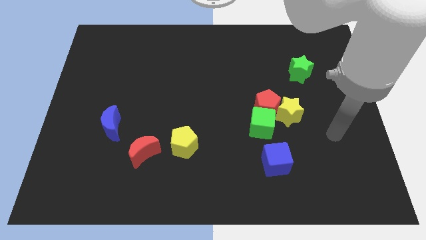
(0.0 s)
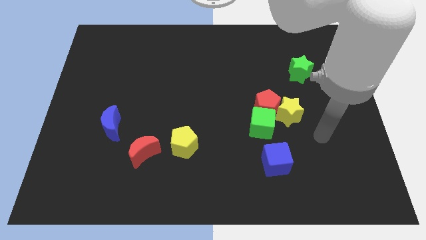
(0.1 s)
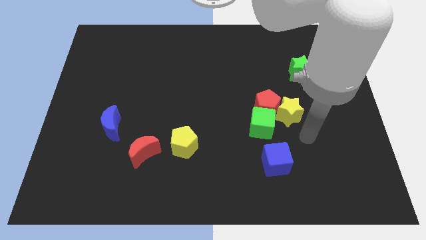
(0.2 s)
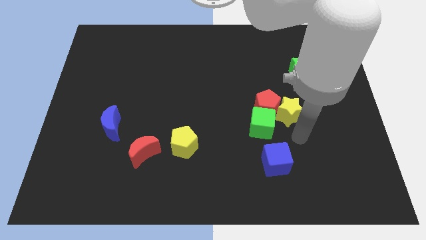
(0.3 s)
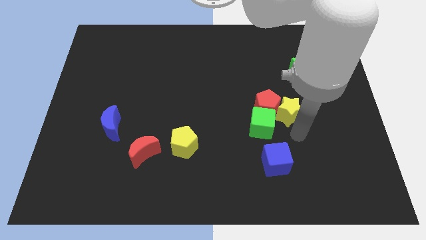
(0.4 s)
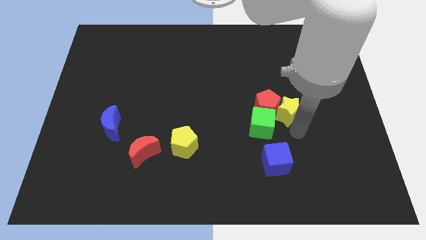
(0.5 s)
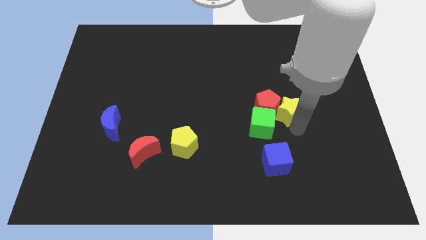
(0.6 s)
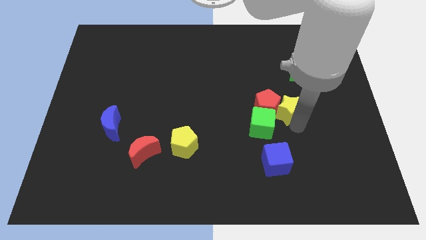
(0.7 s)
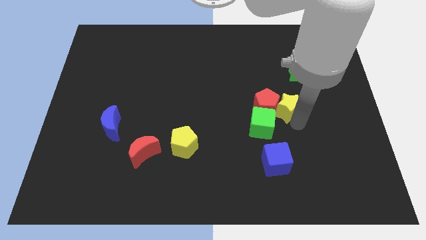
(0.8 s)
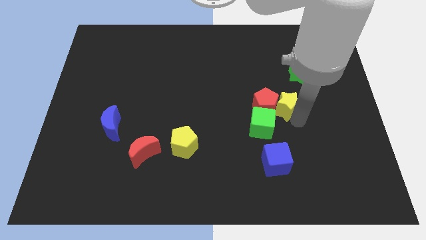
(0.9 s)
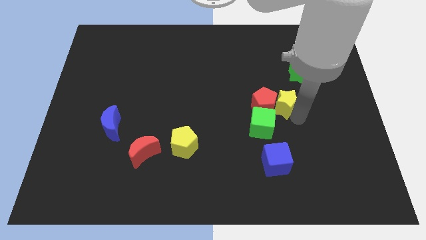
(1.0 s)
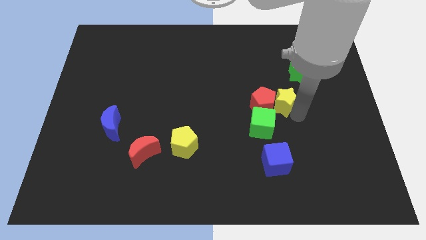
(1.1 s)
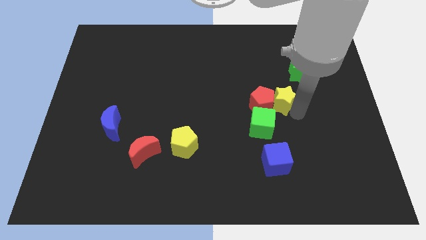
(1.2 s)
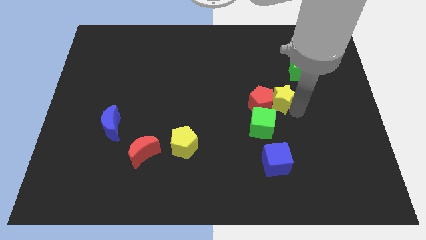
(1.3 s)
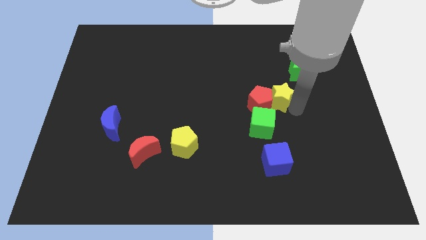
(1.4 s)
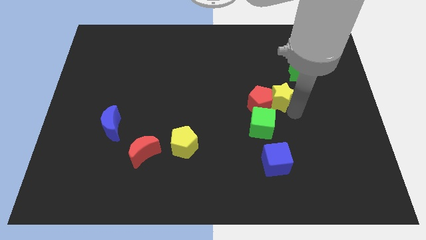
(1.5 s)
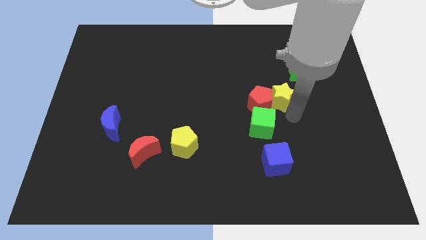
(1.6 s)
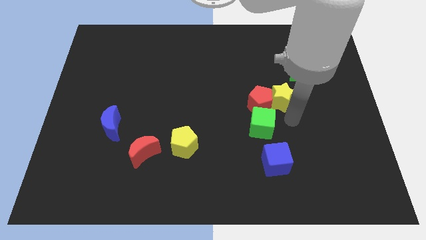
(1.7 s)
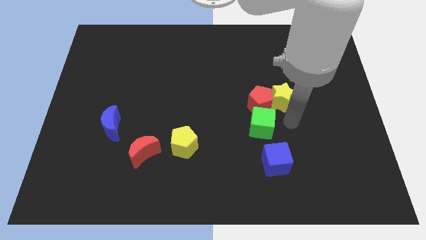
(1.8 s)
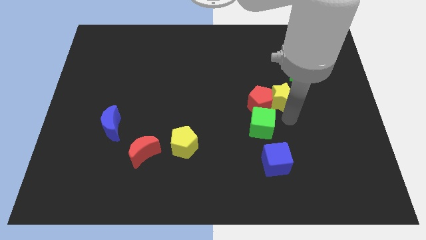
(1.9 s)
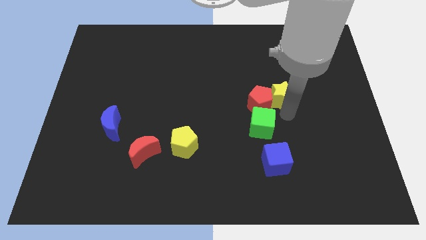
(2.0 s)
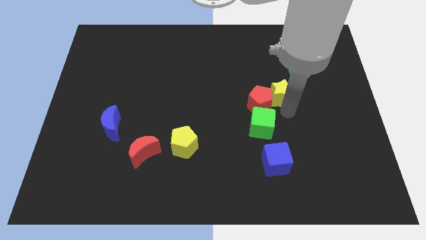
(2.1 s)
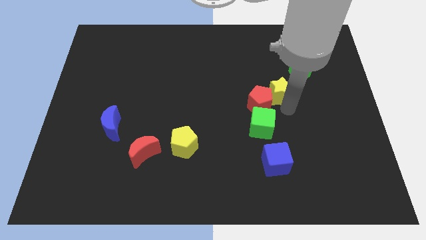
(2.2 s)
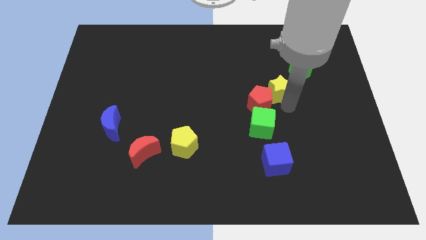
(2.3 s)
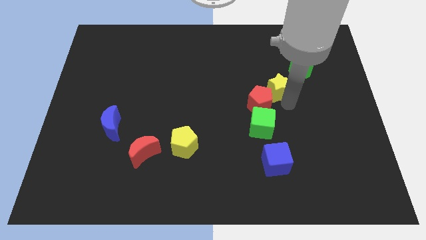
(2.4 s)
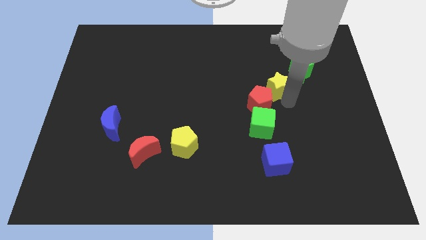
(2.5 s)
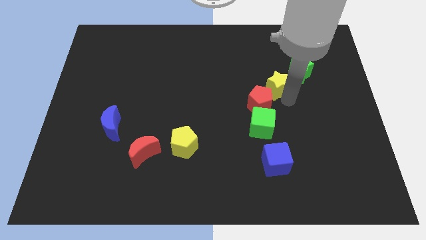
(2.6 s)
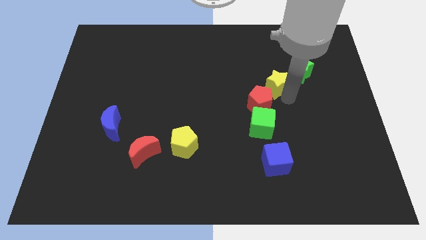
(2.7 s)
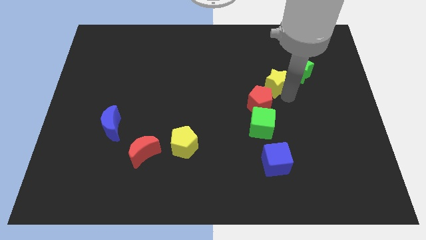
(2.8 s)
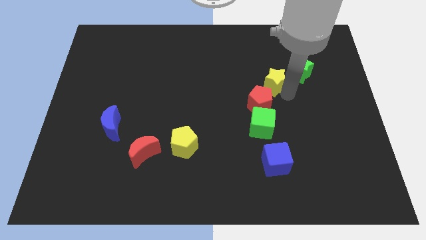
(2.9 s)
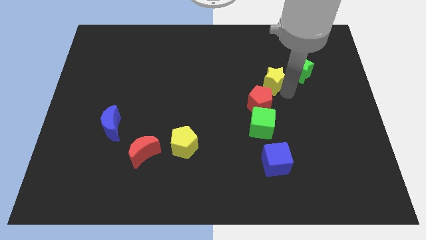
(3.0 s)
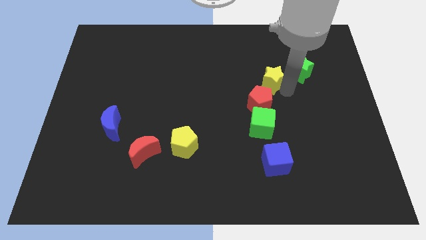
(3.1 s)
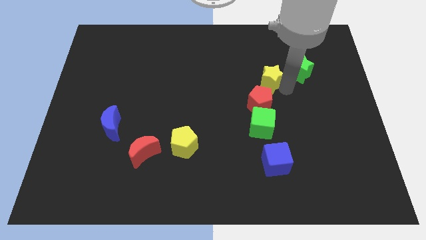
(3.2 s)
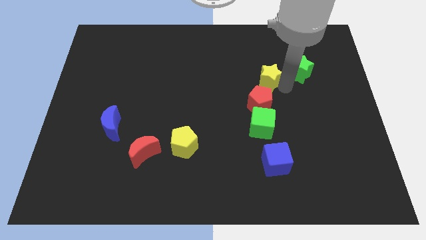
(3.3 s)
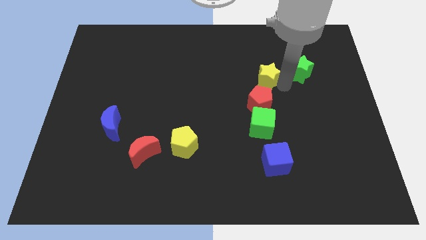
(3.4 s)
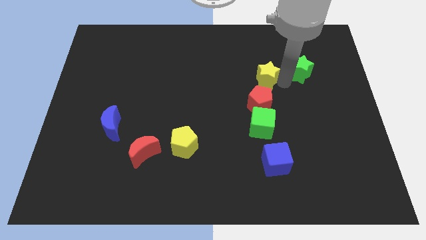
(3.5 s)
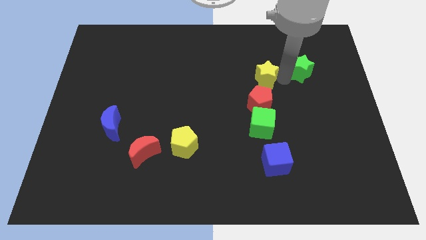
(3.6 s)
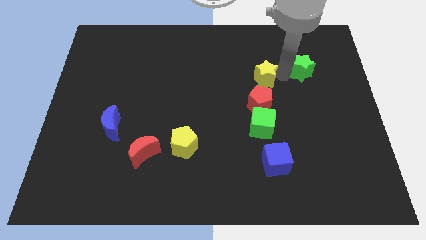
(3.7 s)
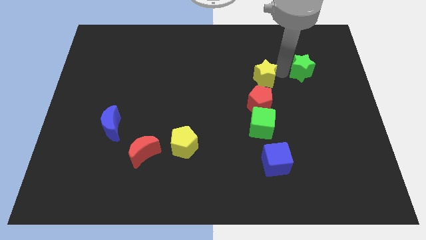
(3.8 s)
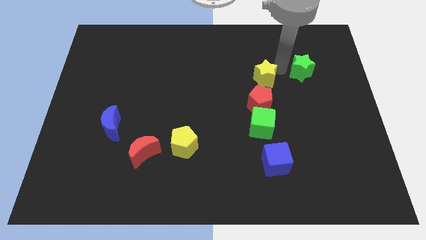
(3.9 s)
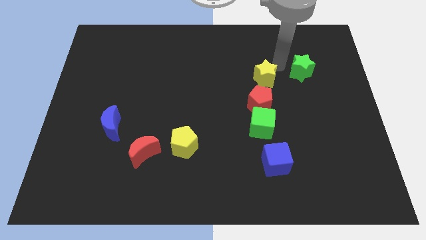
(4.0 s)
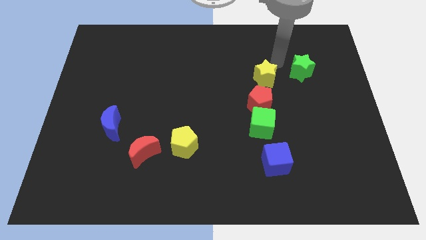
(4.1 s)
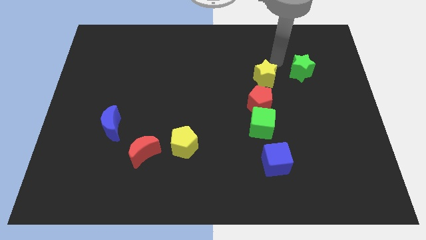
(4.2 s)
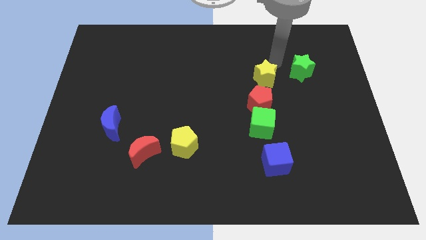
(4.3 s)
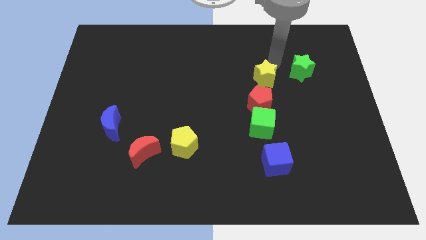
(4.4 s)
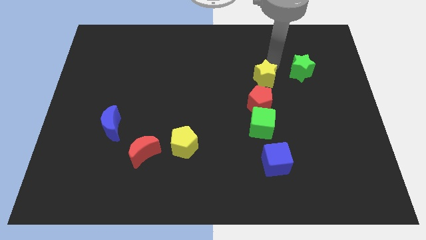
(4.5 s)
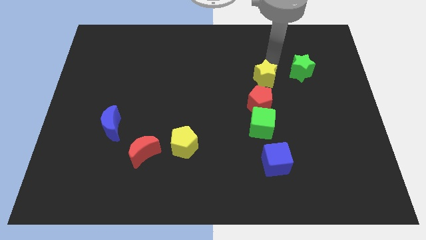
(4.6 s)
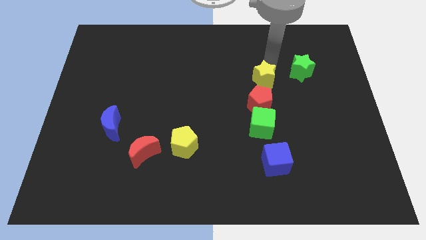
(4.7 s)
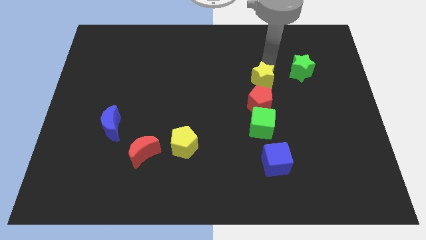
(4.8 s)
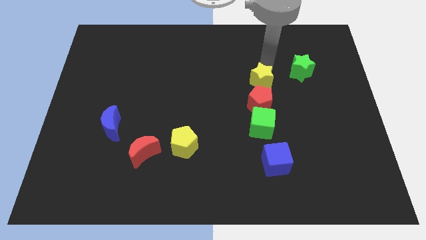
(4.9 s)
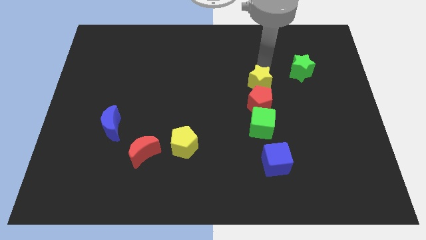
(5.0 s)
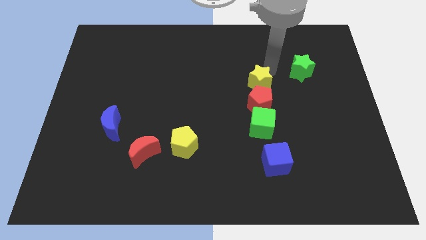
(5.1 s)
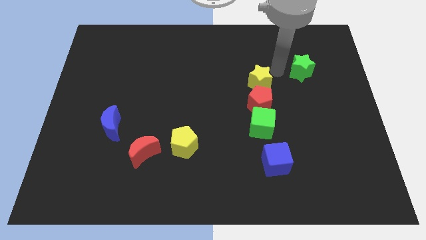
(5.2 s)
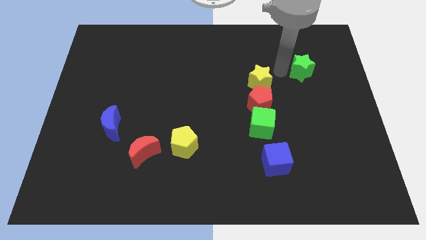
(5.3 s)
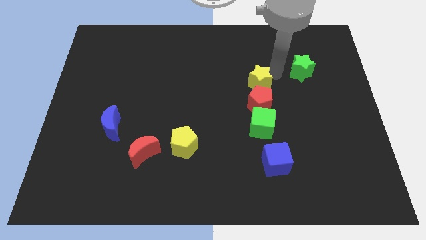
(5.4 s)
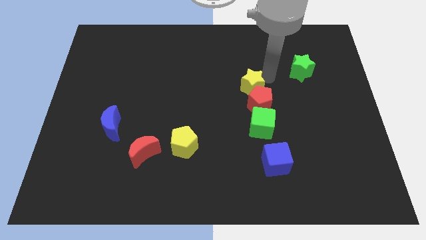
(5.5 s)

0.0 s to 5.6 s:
slide the yellow star to the middle
